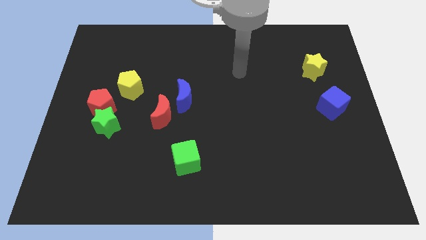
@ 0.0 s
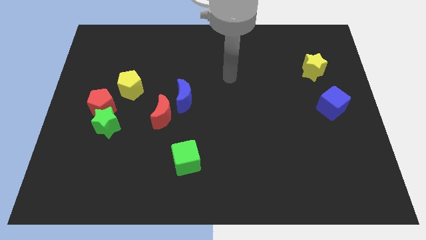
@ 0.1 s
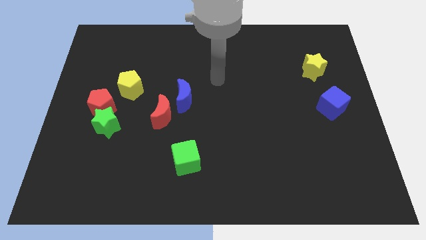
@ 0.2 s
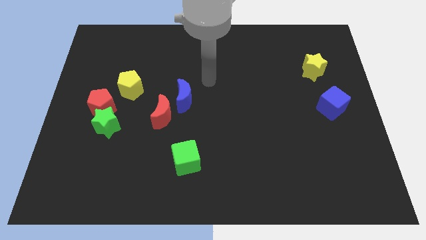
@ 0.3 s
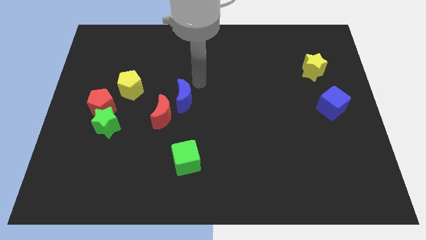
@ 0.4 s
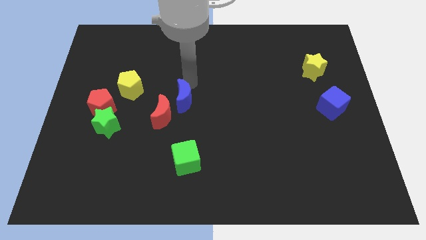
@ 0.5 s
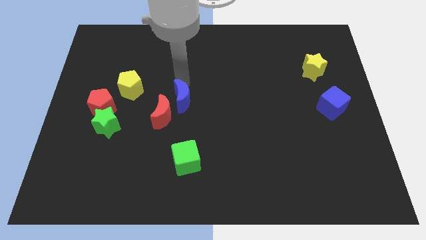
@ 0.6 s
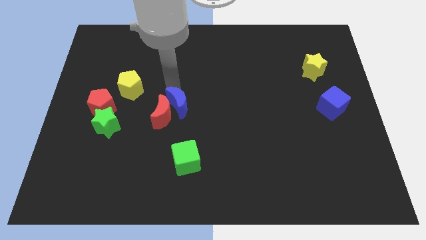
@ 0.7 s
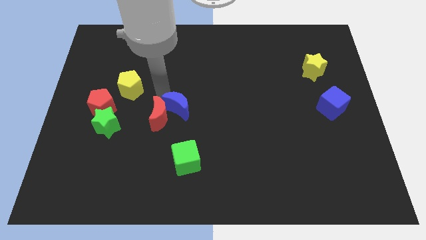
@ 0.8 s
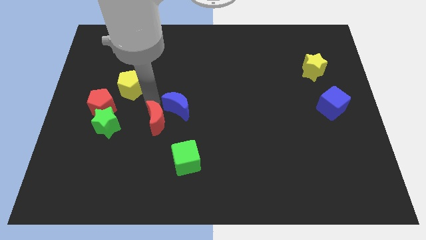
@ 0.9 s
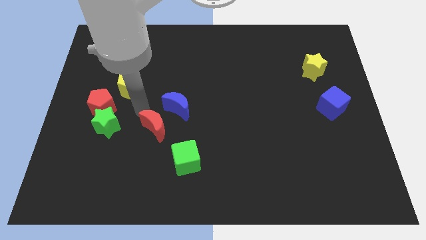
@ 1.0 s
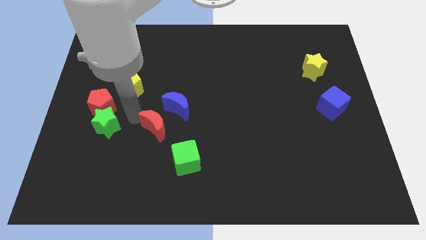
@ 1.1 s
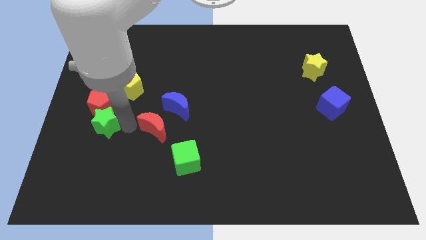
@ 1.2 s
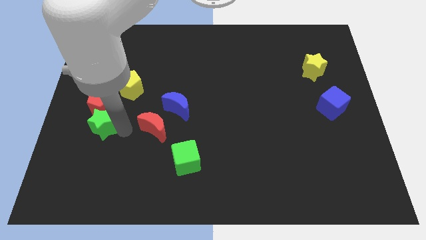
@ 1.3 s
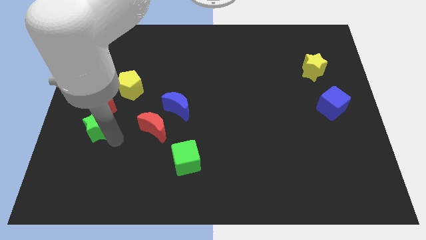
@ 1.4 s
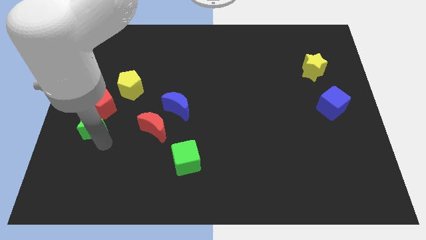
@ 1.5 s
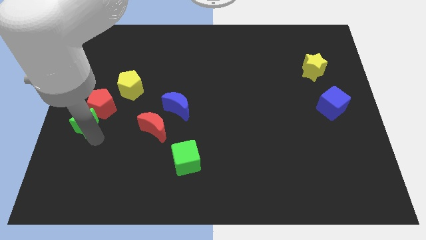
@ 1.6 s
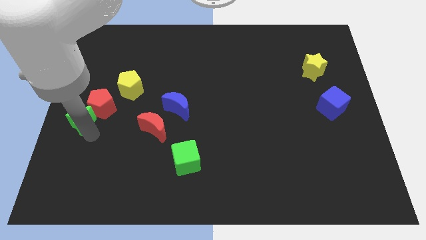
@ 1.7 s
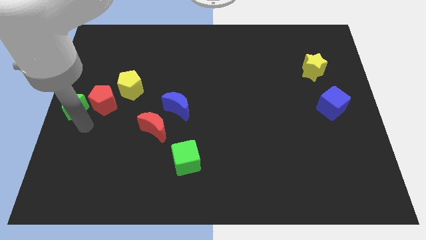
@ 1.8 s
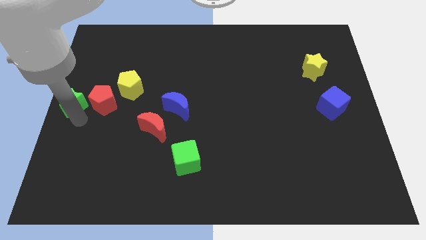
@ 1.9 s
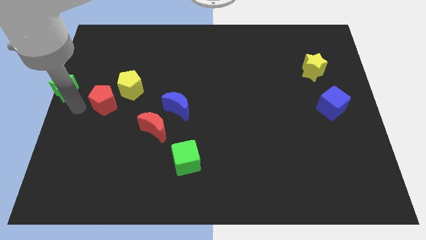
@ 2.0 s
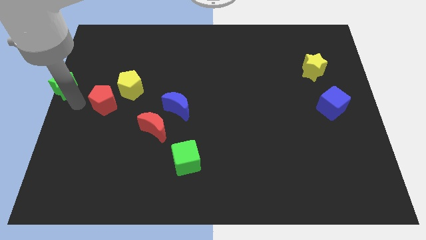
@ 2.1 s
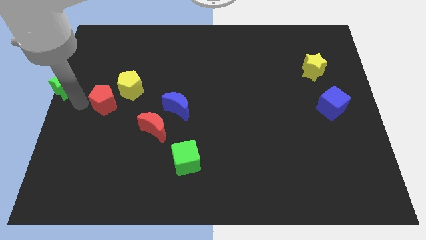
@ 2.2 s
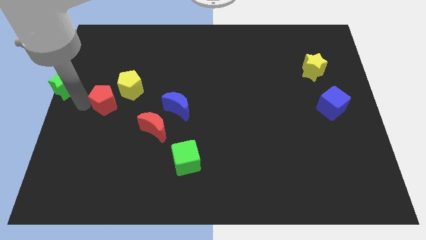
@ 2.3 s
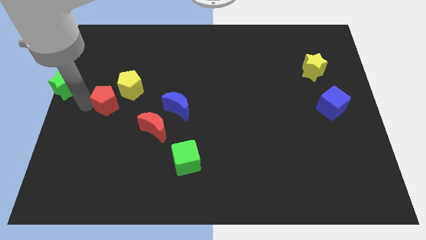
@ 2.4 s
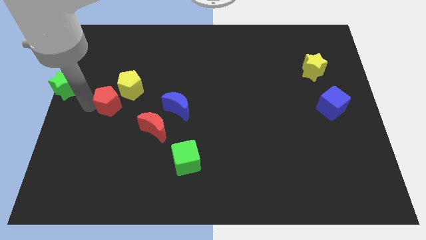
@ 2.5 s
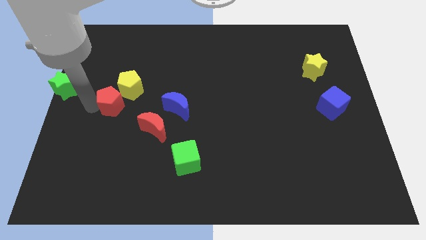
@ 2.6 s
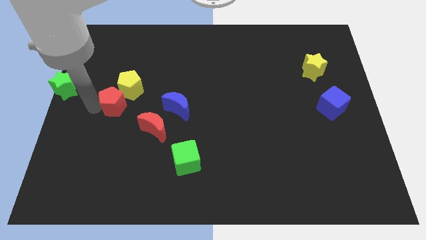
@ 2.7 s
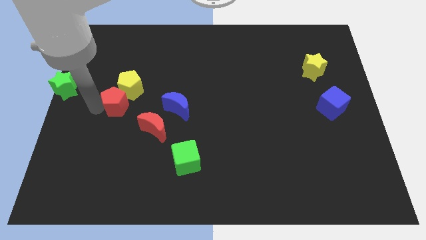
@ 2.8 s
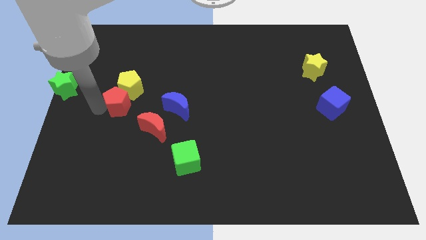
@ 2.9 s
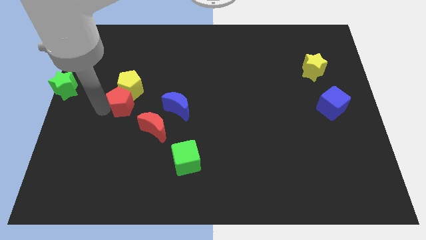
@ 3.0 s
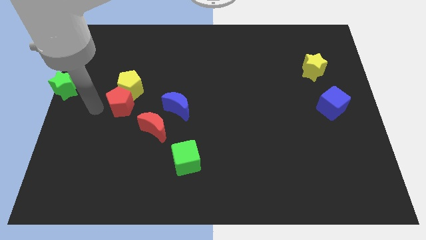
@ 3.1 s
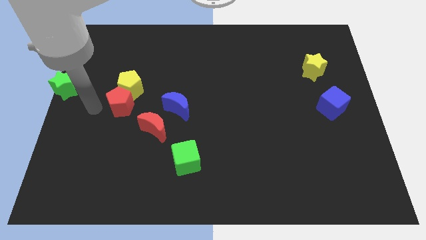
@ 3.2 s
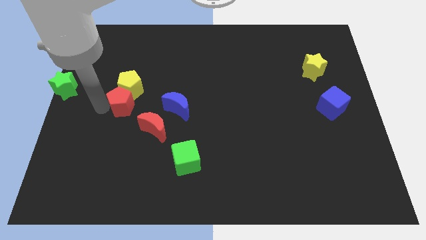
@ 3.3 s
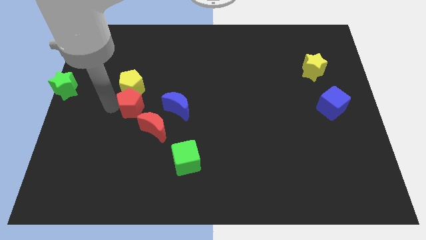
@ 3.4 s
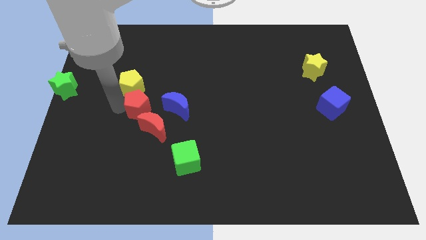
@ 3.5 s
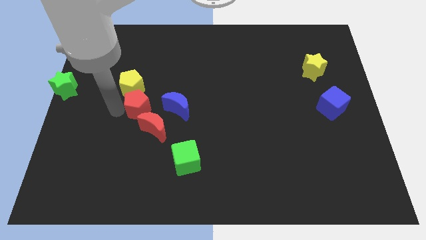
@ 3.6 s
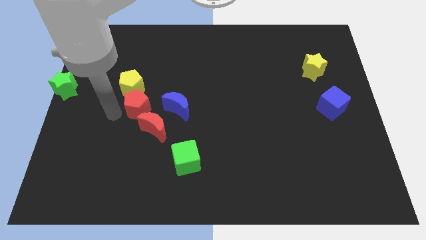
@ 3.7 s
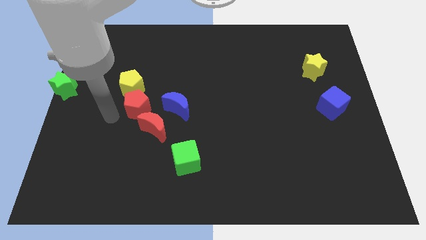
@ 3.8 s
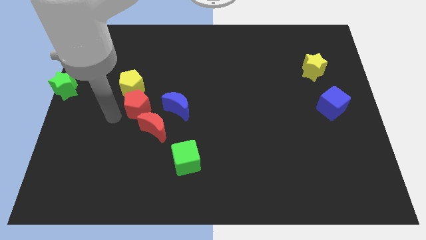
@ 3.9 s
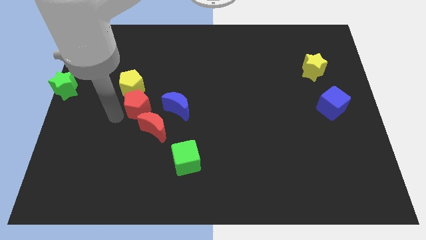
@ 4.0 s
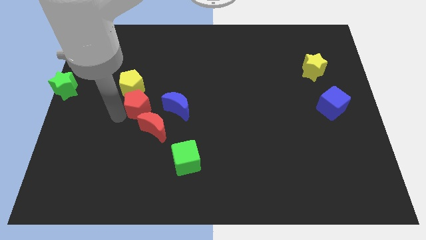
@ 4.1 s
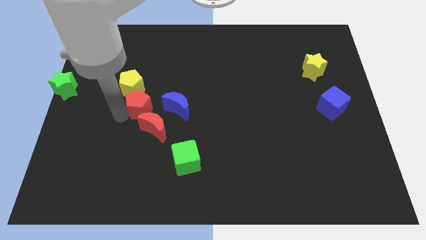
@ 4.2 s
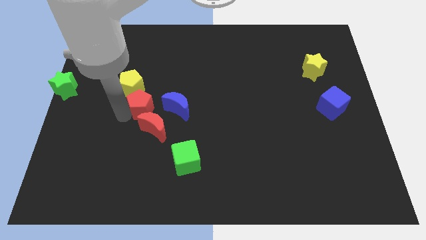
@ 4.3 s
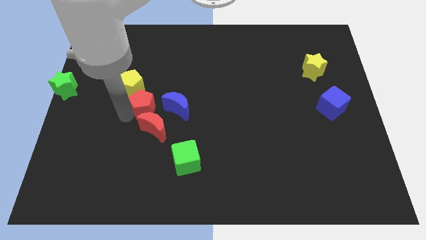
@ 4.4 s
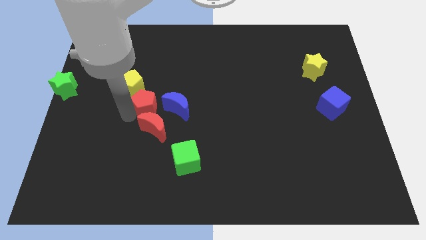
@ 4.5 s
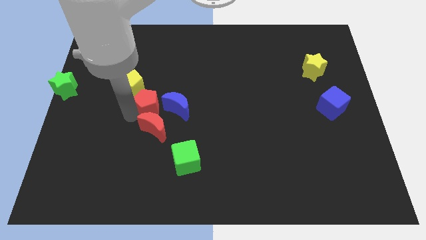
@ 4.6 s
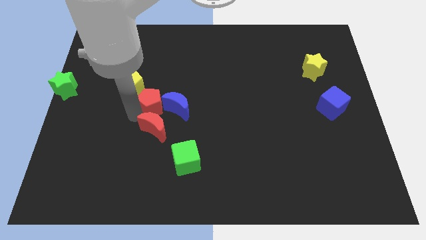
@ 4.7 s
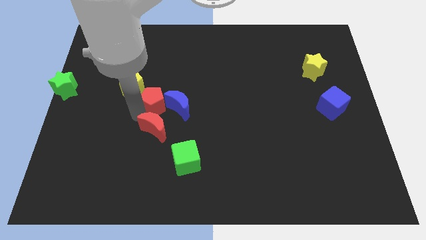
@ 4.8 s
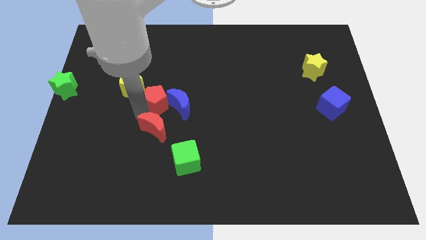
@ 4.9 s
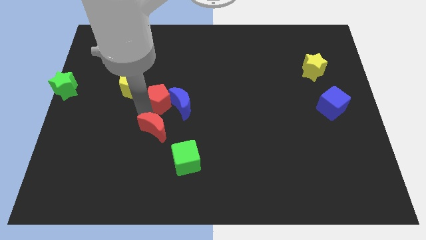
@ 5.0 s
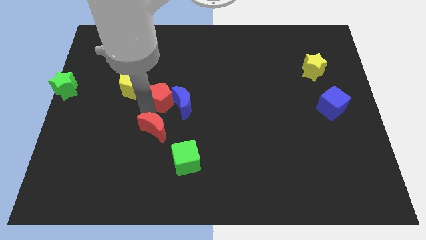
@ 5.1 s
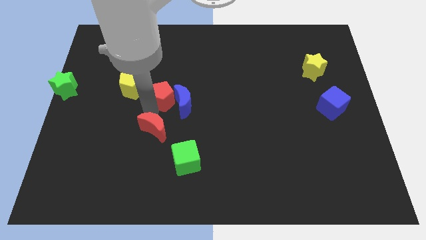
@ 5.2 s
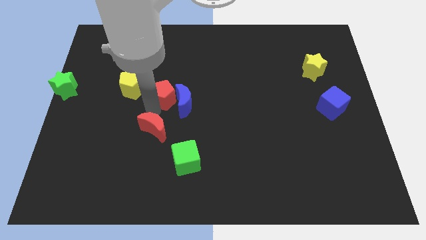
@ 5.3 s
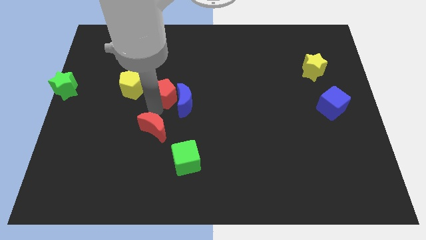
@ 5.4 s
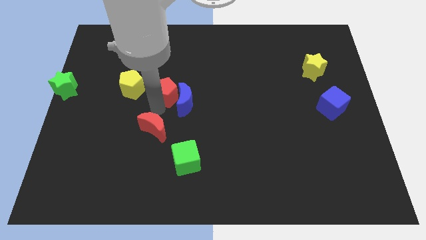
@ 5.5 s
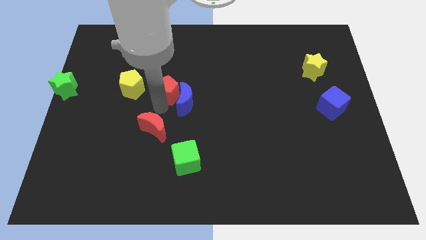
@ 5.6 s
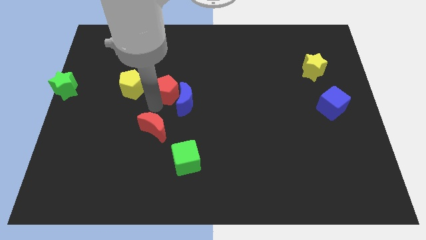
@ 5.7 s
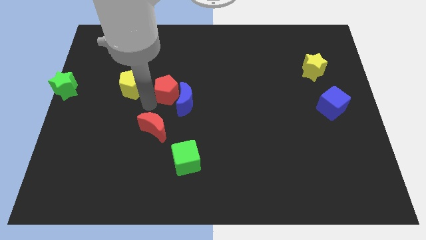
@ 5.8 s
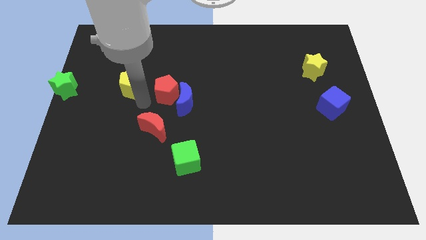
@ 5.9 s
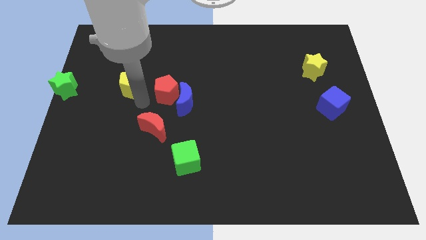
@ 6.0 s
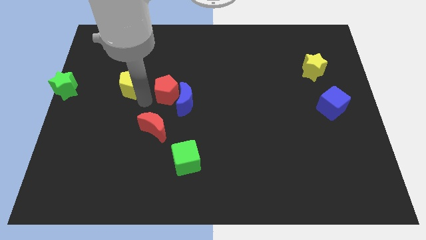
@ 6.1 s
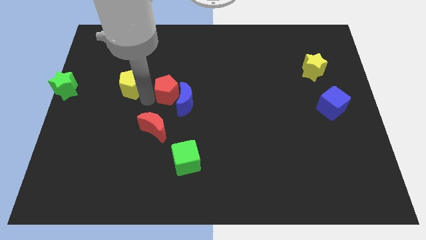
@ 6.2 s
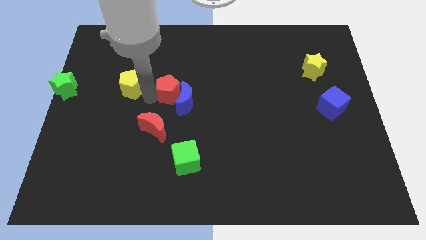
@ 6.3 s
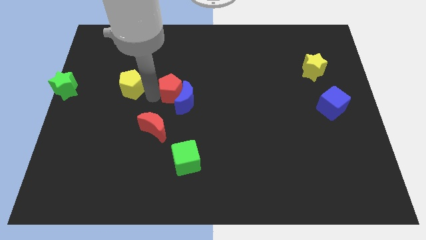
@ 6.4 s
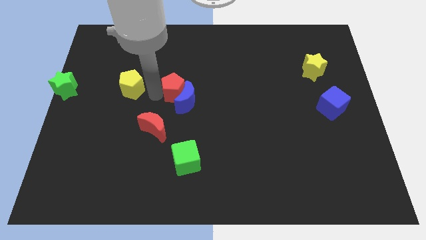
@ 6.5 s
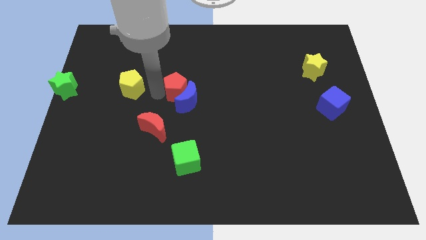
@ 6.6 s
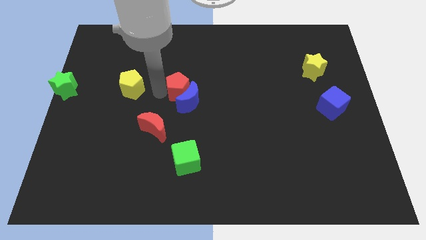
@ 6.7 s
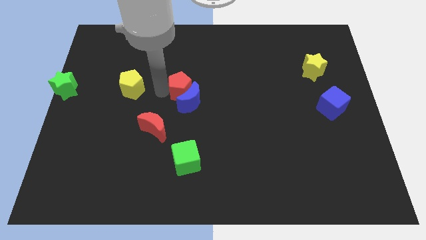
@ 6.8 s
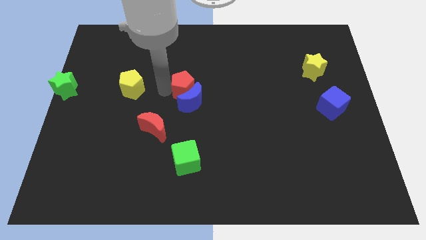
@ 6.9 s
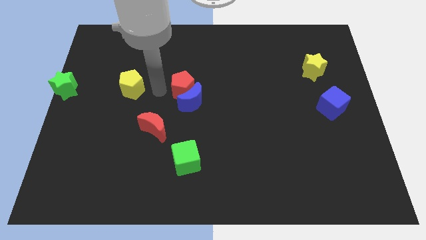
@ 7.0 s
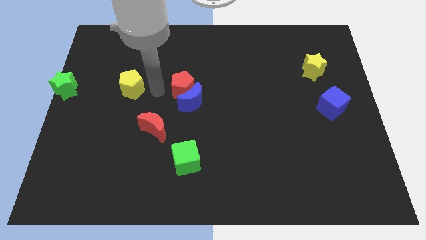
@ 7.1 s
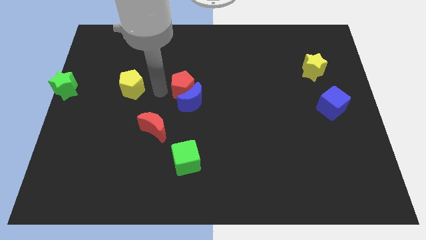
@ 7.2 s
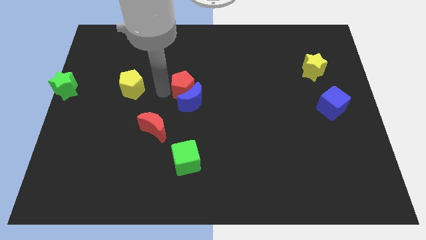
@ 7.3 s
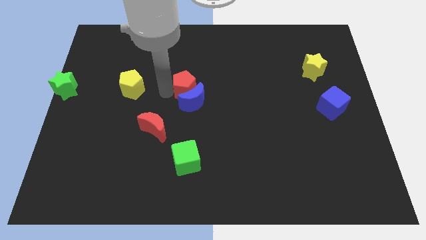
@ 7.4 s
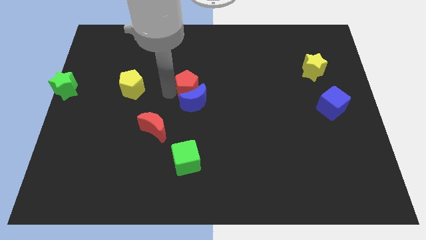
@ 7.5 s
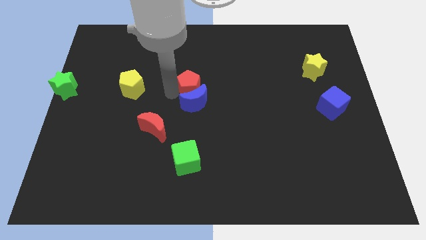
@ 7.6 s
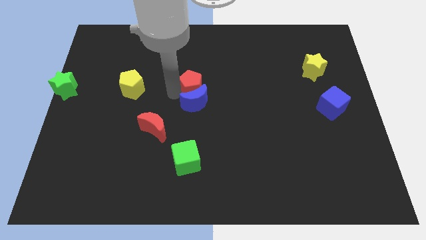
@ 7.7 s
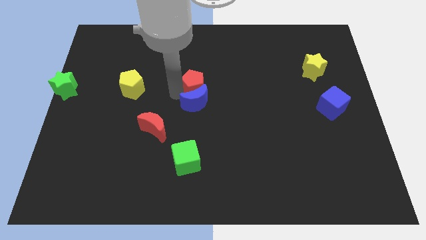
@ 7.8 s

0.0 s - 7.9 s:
push the red pentagon to the right

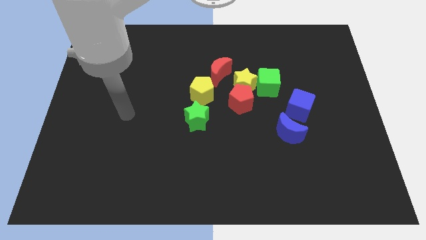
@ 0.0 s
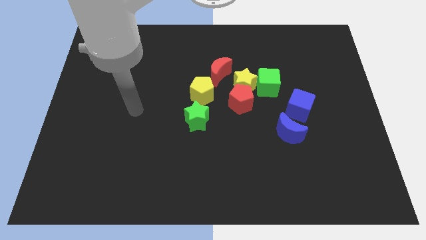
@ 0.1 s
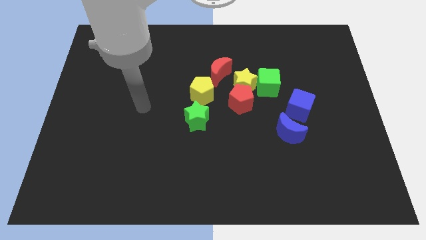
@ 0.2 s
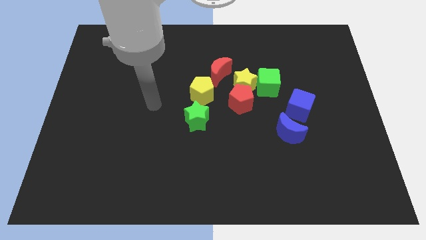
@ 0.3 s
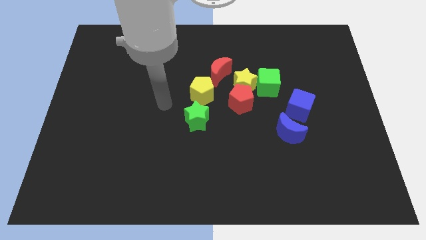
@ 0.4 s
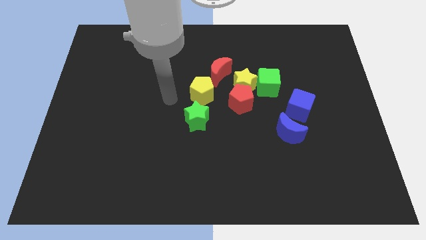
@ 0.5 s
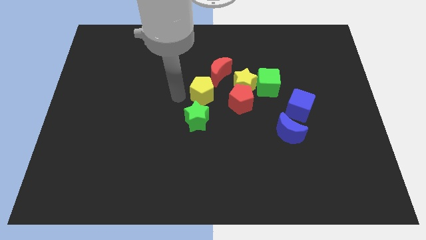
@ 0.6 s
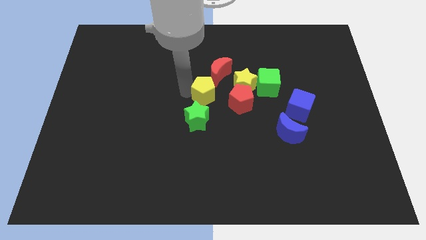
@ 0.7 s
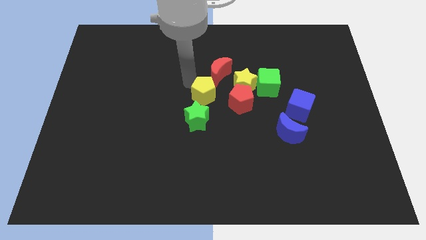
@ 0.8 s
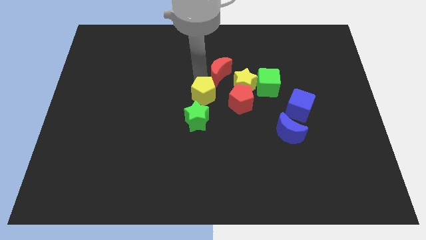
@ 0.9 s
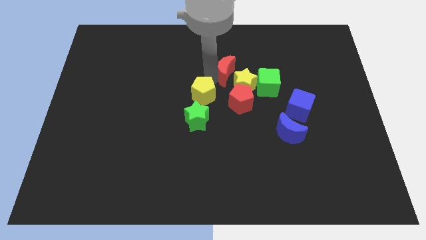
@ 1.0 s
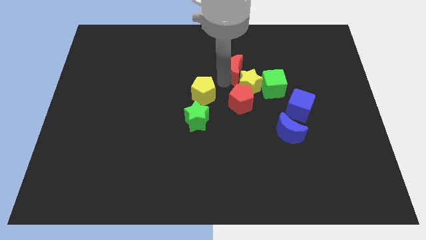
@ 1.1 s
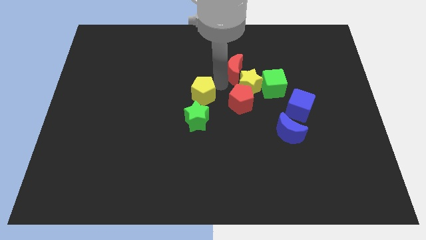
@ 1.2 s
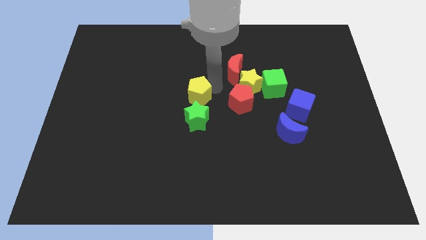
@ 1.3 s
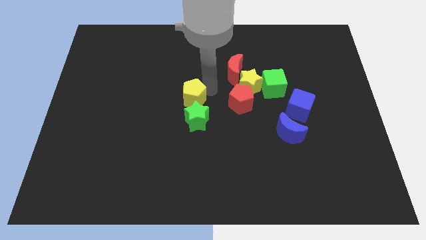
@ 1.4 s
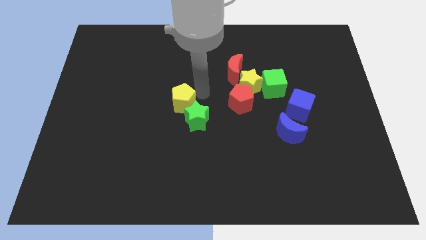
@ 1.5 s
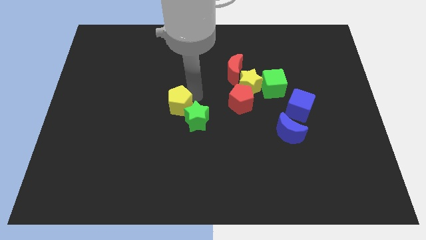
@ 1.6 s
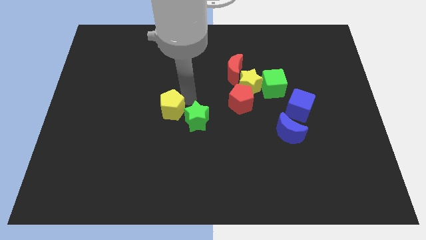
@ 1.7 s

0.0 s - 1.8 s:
slightly move the yellow pentagon down and left diagonally
